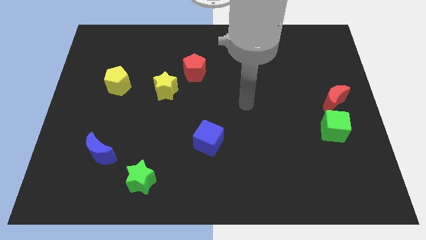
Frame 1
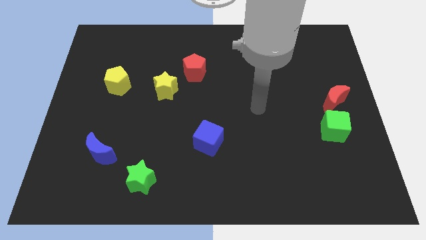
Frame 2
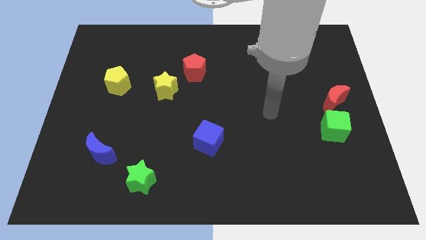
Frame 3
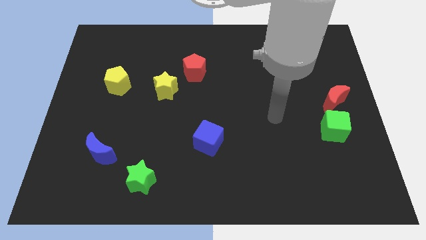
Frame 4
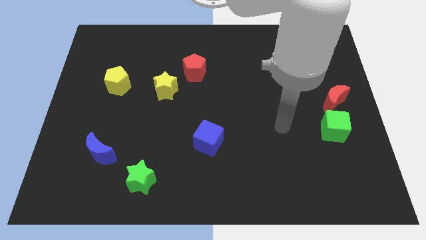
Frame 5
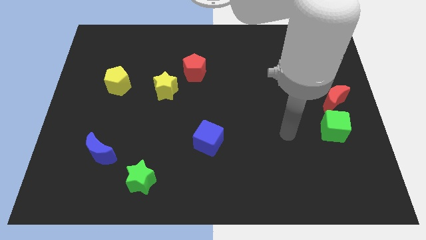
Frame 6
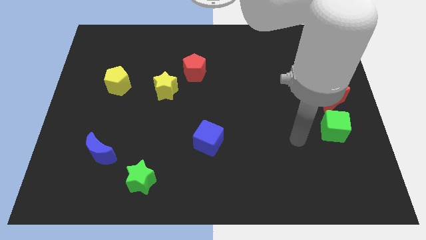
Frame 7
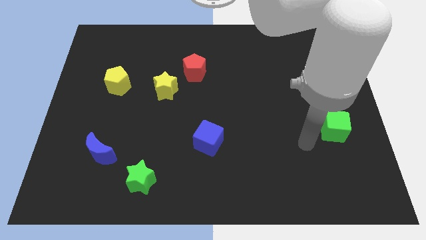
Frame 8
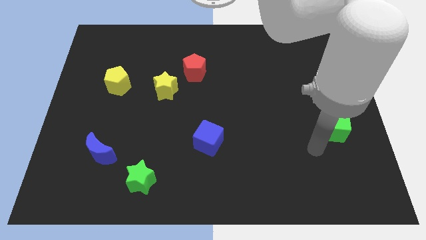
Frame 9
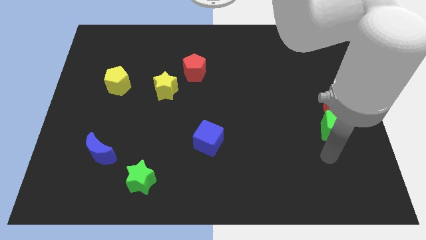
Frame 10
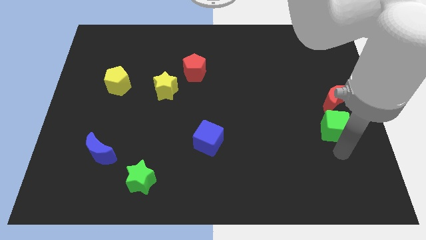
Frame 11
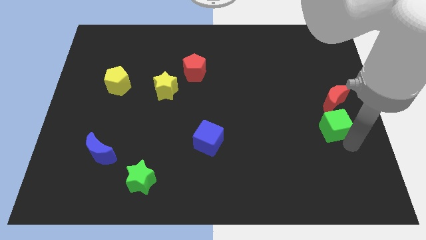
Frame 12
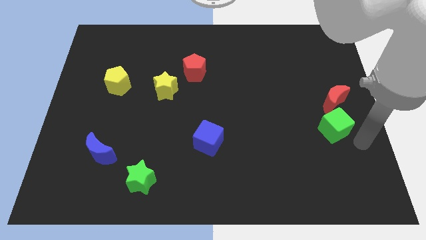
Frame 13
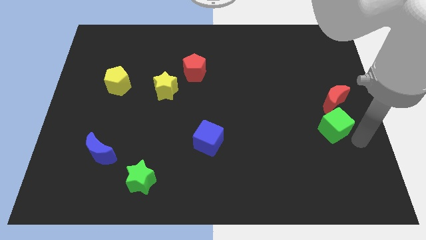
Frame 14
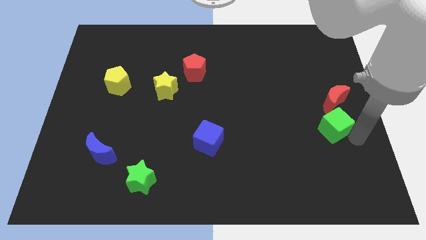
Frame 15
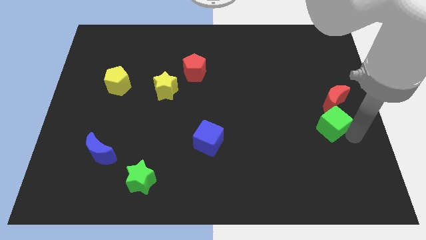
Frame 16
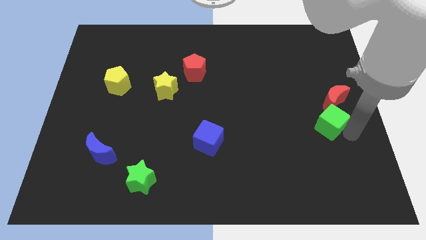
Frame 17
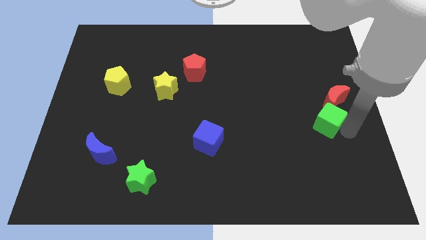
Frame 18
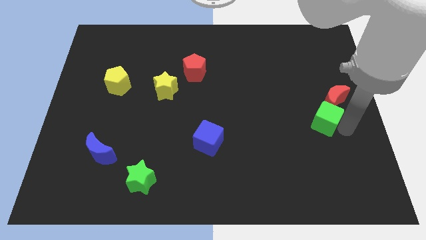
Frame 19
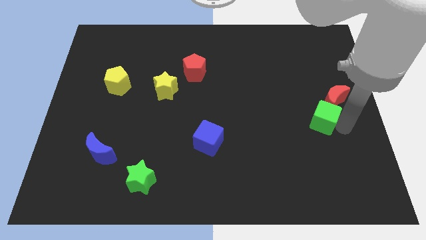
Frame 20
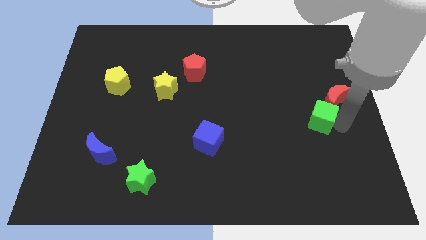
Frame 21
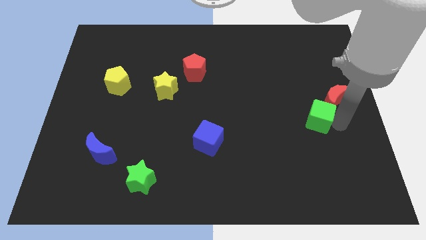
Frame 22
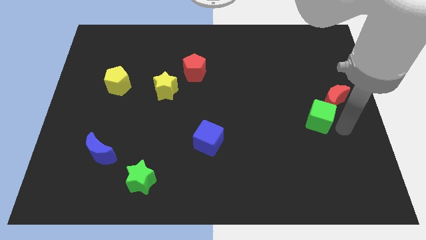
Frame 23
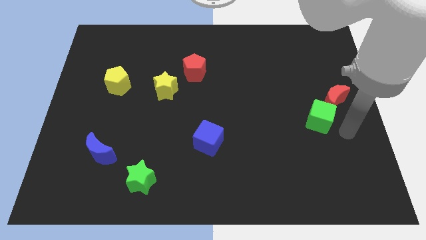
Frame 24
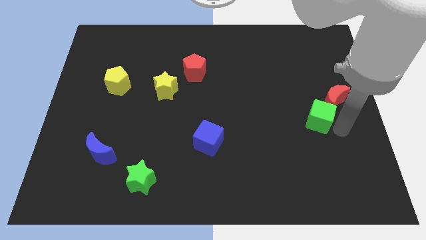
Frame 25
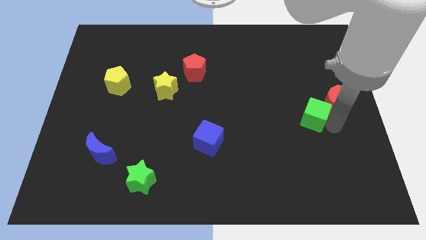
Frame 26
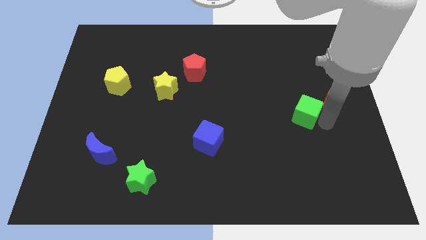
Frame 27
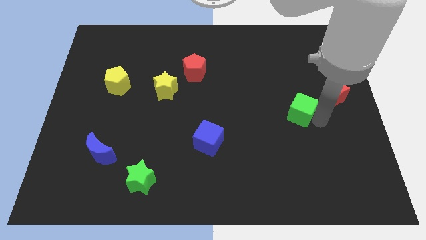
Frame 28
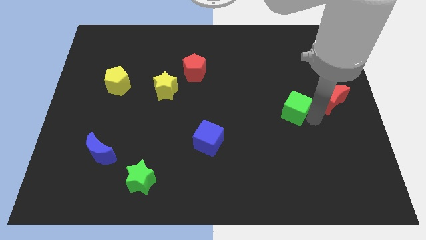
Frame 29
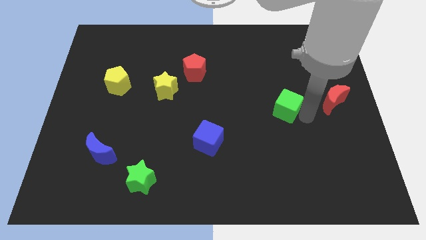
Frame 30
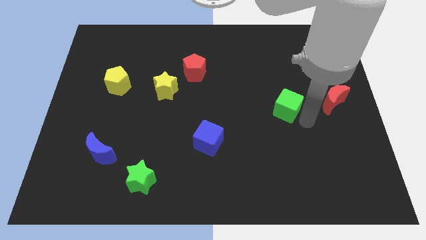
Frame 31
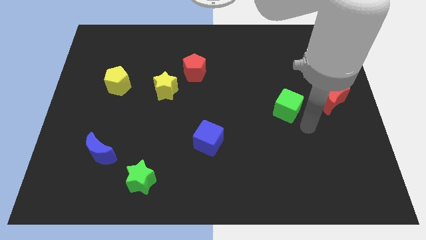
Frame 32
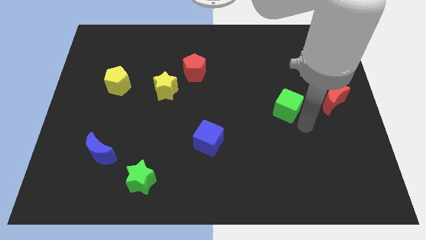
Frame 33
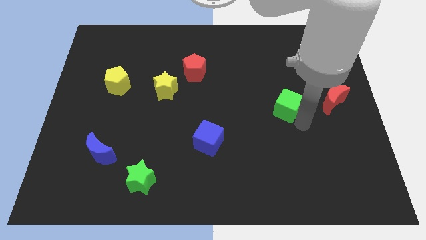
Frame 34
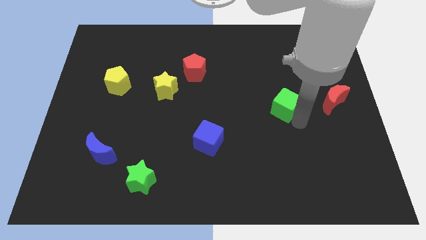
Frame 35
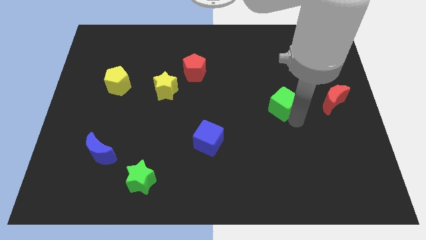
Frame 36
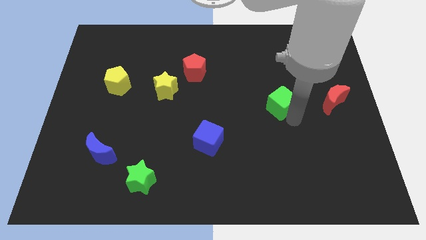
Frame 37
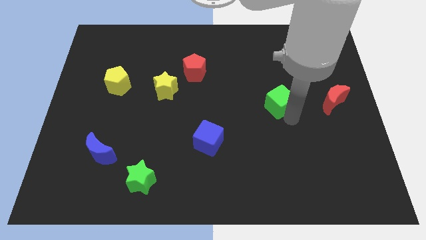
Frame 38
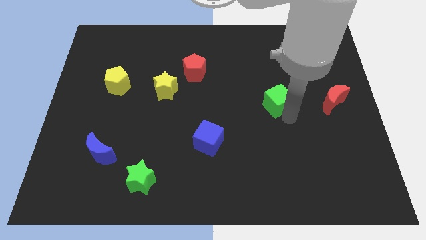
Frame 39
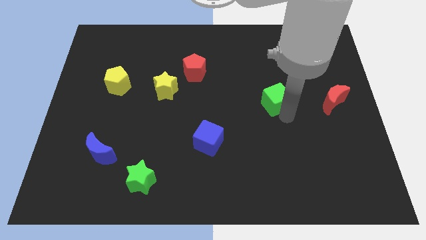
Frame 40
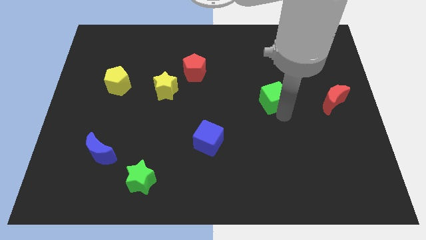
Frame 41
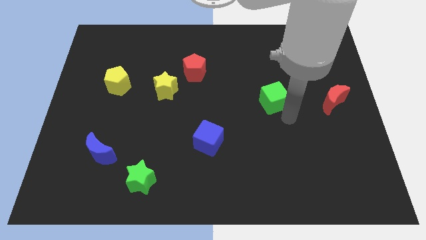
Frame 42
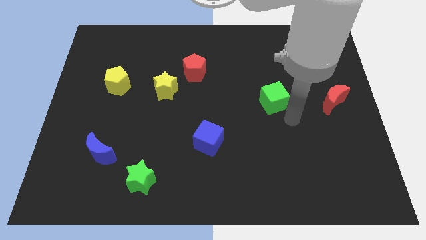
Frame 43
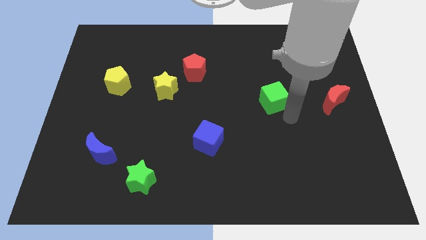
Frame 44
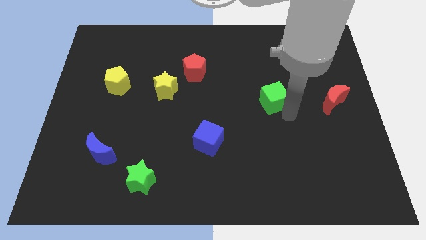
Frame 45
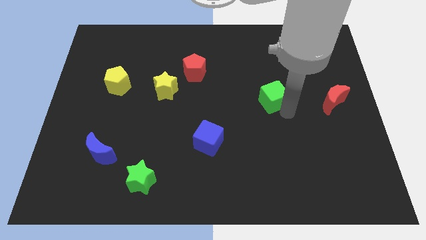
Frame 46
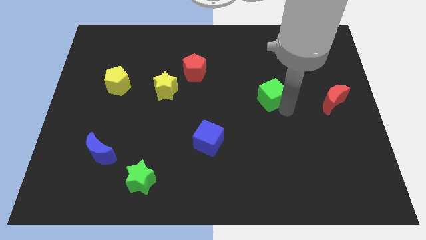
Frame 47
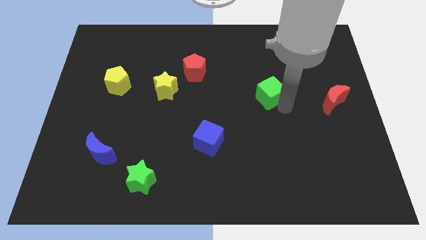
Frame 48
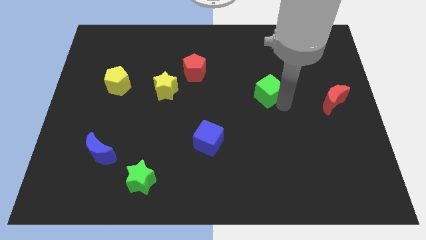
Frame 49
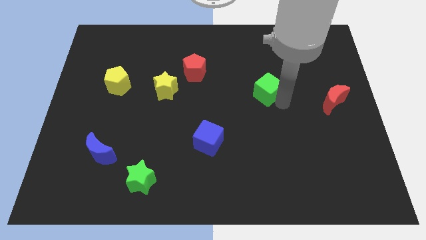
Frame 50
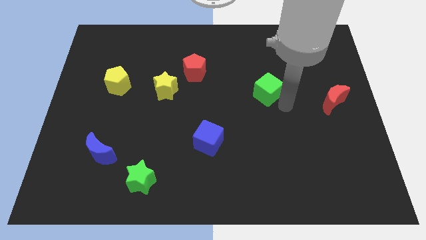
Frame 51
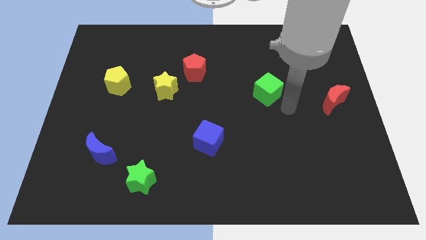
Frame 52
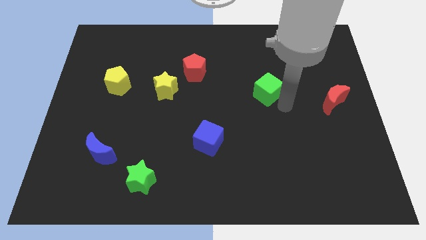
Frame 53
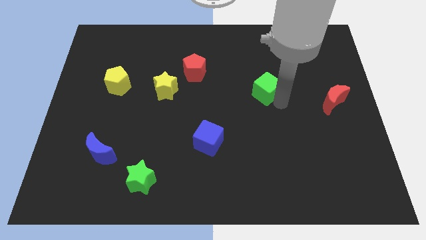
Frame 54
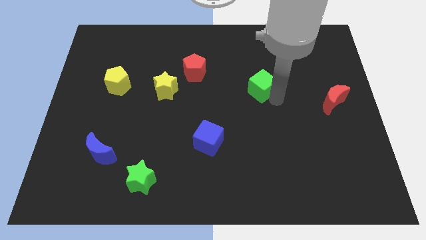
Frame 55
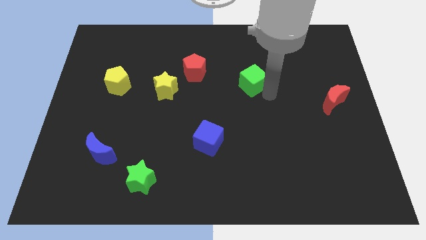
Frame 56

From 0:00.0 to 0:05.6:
slide the green cube to the right side of the red pentagon

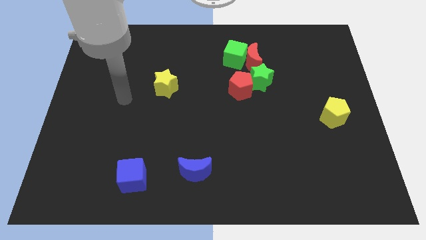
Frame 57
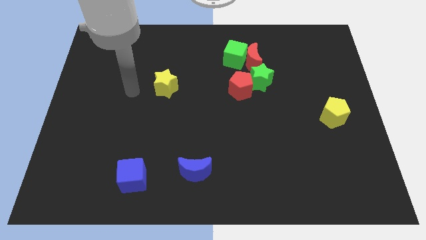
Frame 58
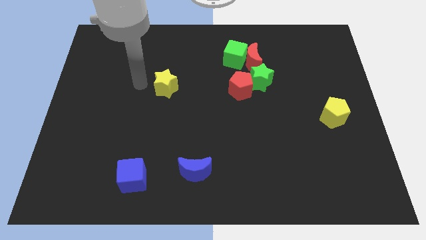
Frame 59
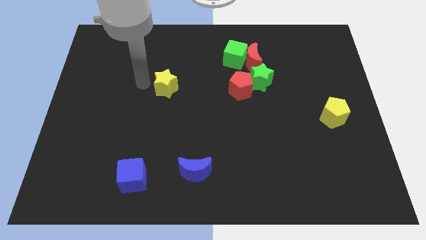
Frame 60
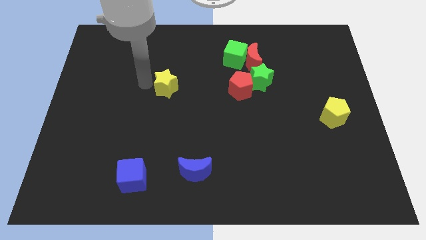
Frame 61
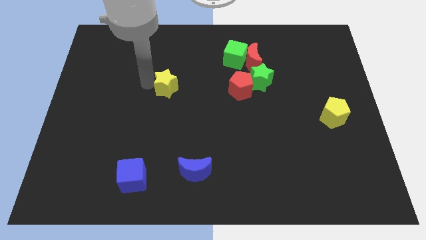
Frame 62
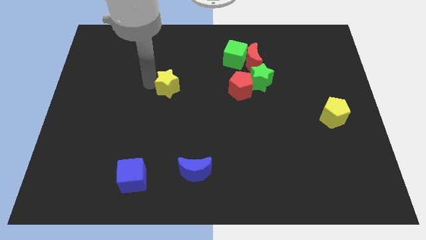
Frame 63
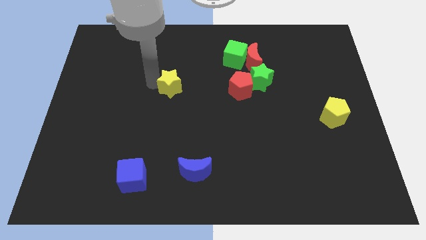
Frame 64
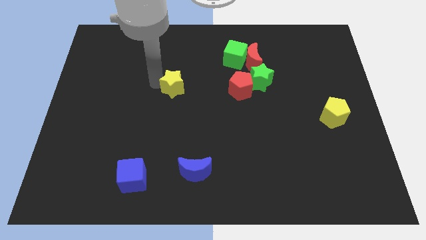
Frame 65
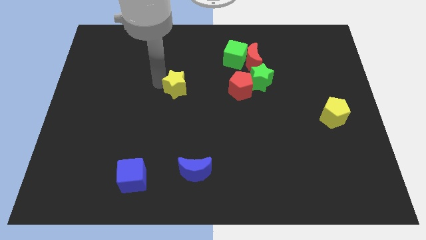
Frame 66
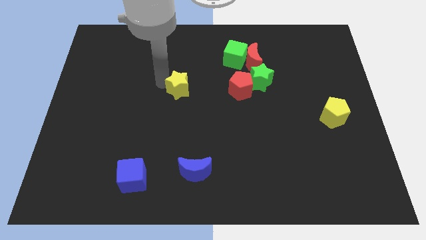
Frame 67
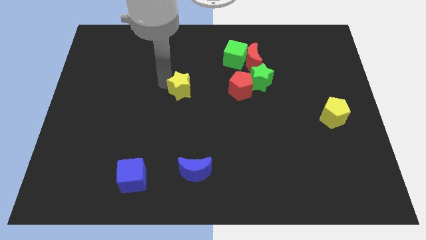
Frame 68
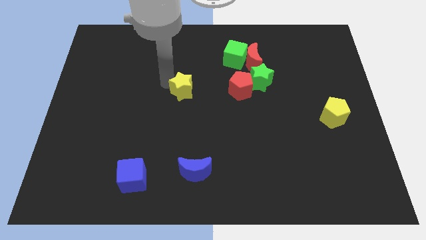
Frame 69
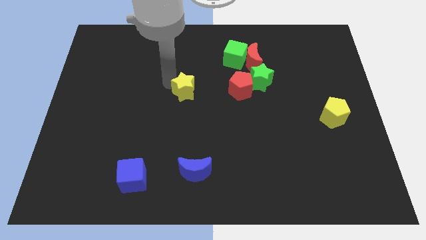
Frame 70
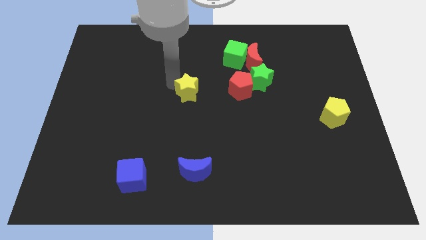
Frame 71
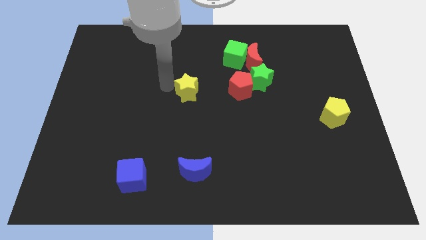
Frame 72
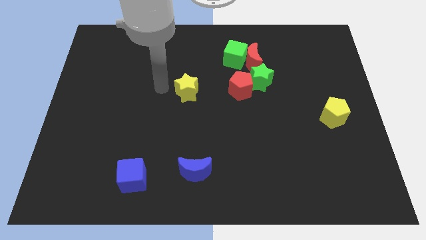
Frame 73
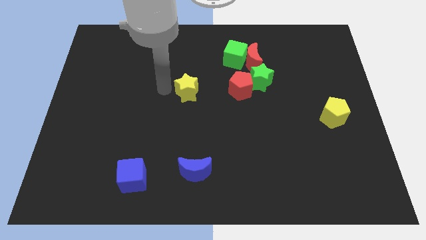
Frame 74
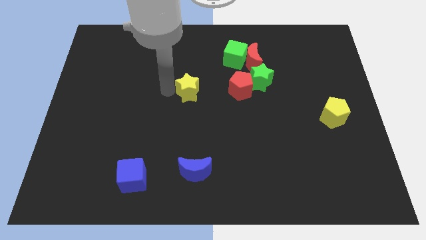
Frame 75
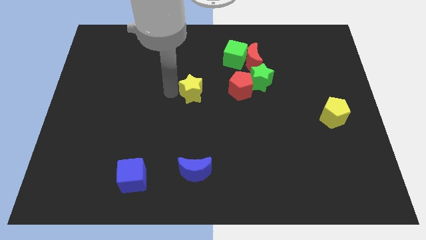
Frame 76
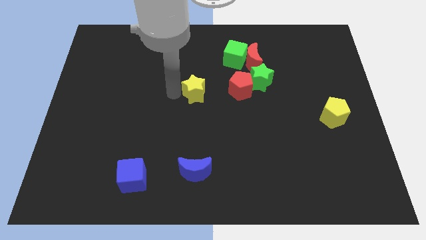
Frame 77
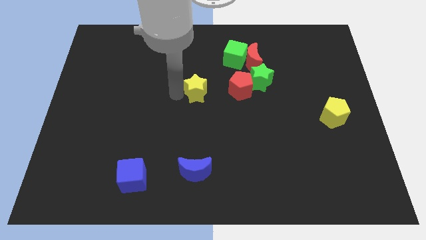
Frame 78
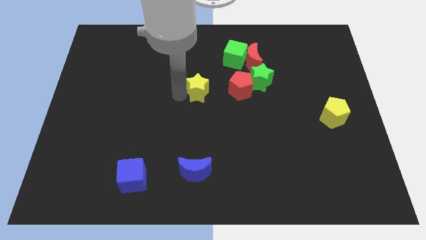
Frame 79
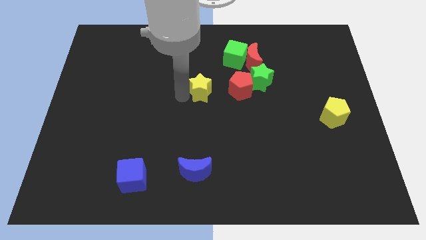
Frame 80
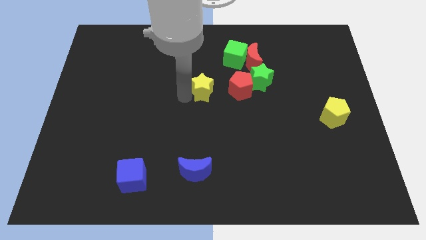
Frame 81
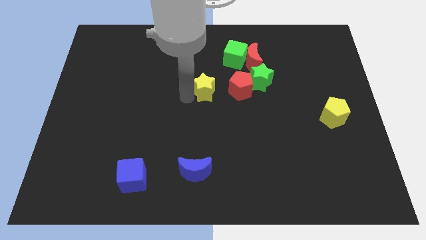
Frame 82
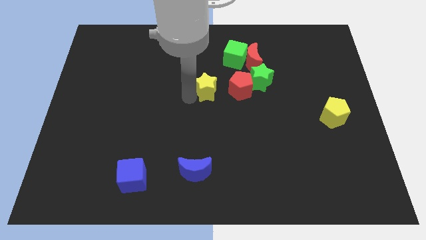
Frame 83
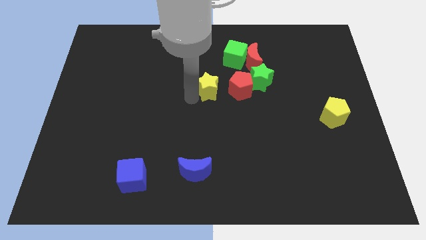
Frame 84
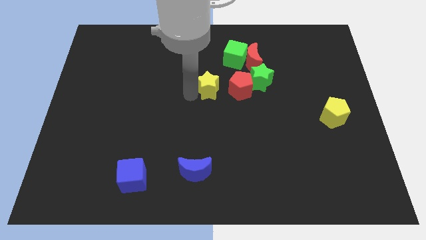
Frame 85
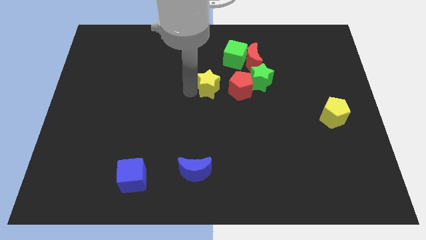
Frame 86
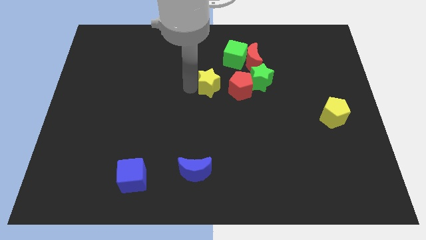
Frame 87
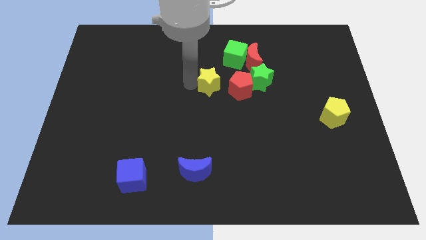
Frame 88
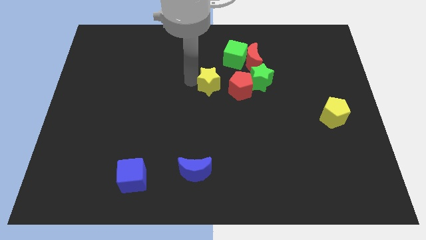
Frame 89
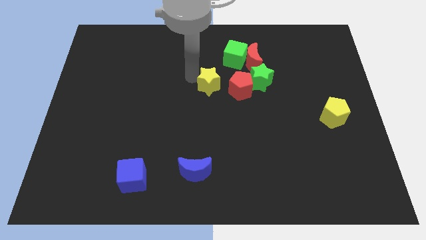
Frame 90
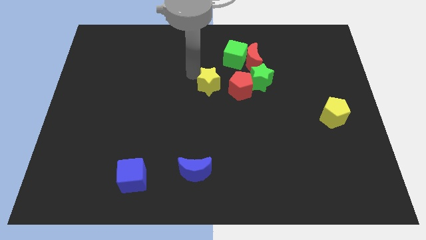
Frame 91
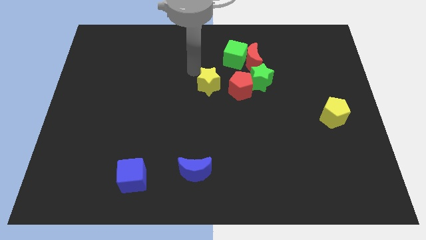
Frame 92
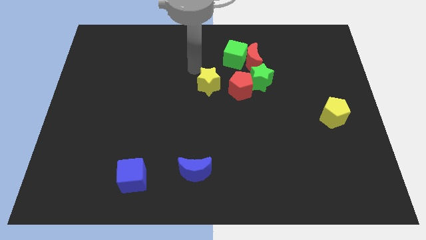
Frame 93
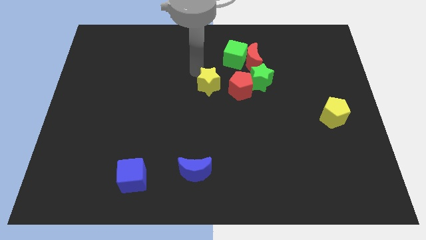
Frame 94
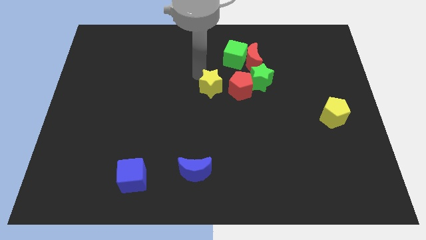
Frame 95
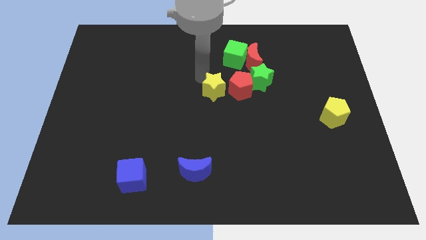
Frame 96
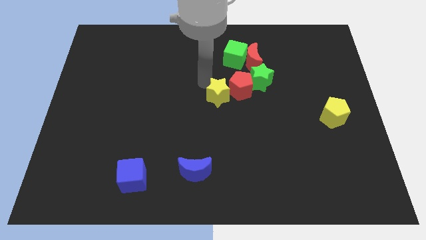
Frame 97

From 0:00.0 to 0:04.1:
slide the yellow star below the green cube
